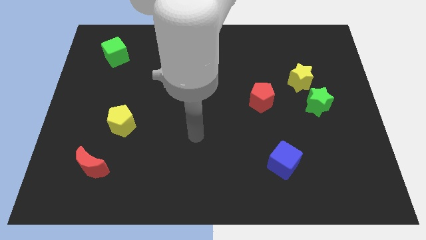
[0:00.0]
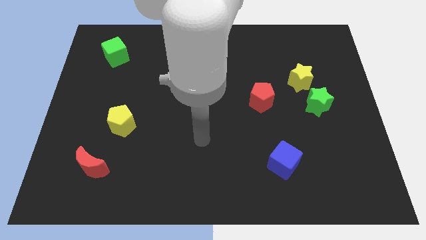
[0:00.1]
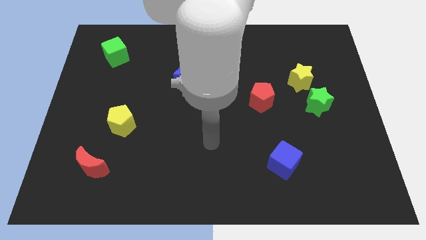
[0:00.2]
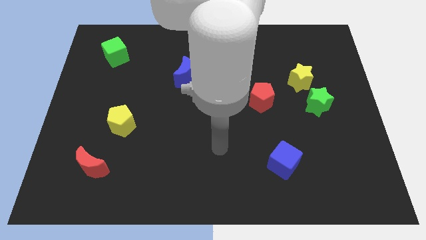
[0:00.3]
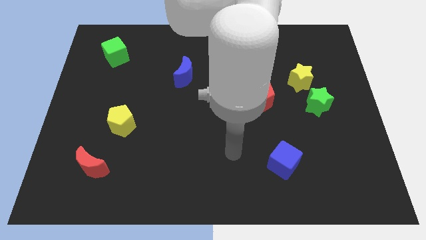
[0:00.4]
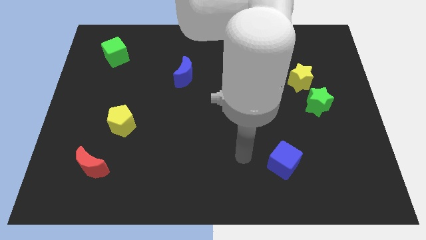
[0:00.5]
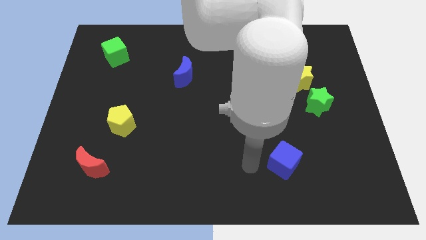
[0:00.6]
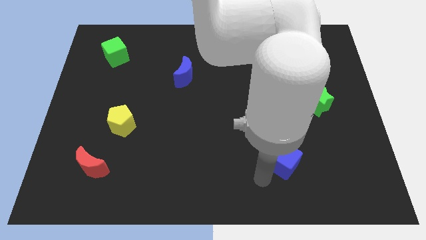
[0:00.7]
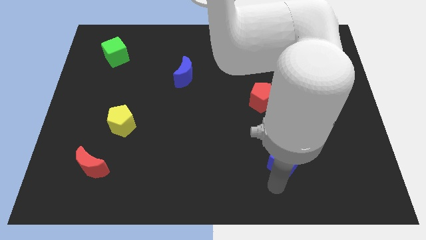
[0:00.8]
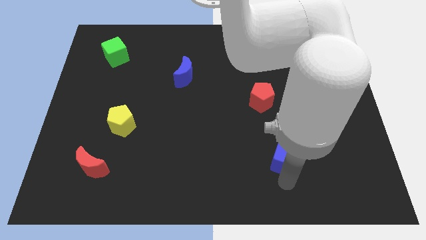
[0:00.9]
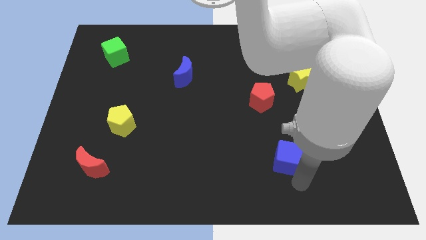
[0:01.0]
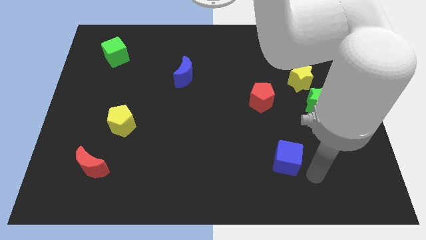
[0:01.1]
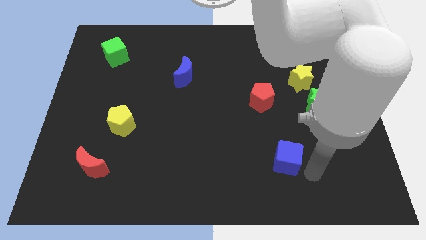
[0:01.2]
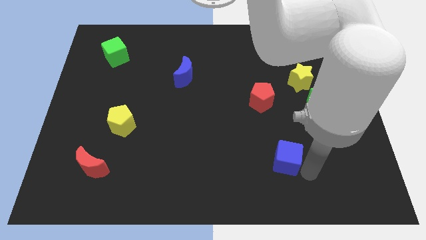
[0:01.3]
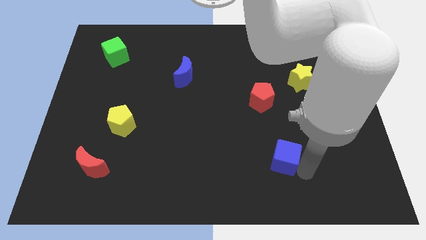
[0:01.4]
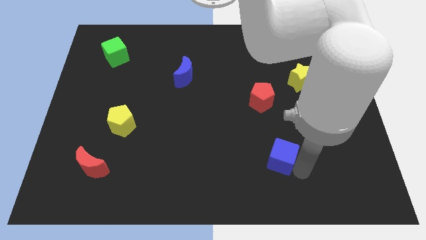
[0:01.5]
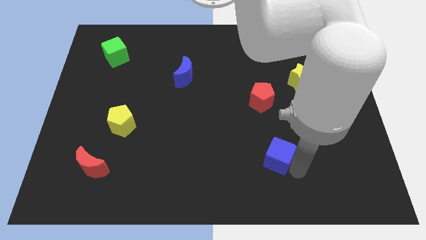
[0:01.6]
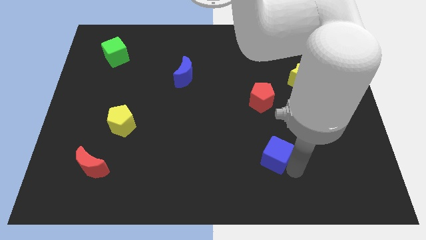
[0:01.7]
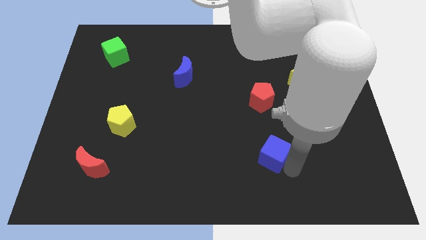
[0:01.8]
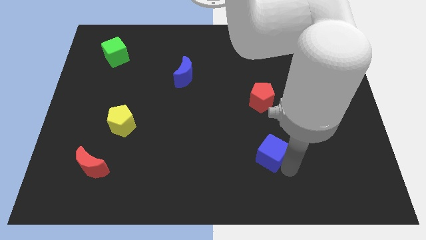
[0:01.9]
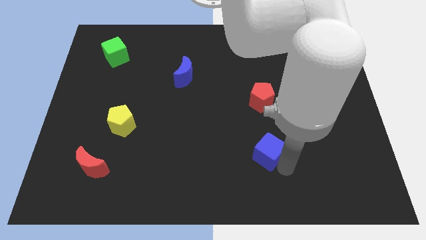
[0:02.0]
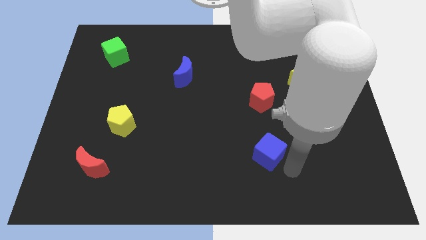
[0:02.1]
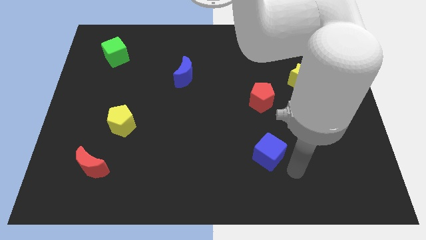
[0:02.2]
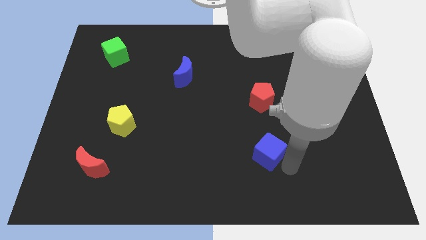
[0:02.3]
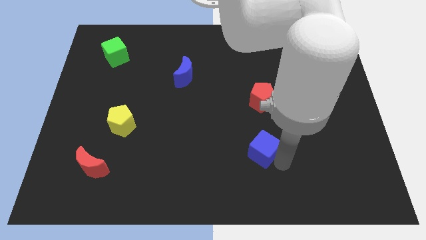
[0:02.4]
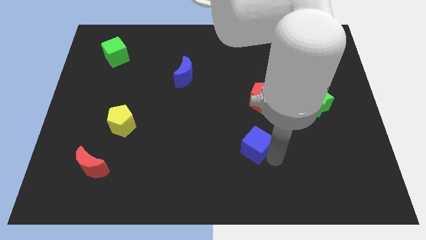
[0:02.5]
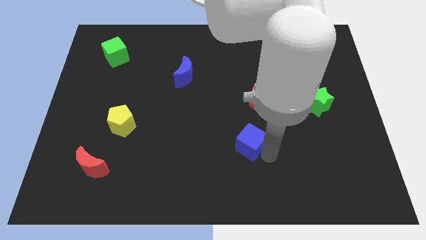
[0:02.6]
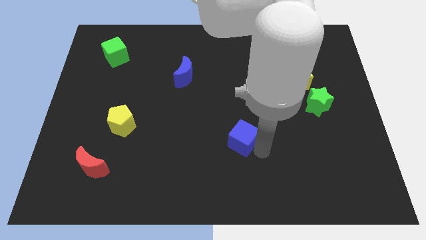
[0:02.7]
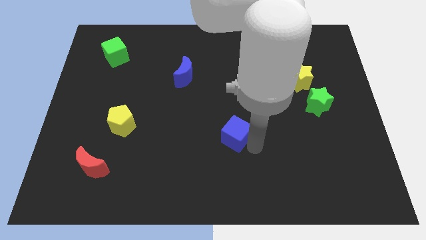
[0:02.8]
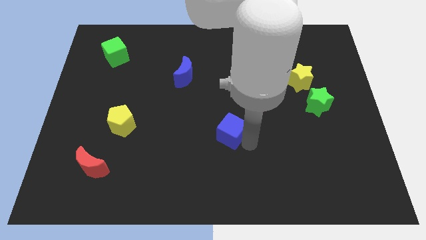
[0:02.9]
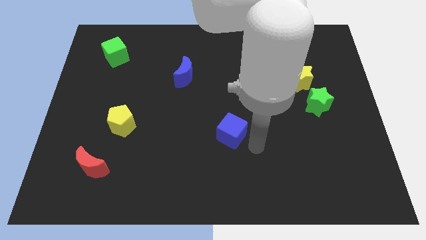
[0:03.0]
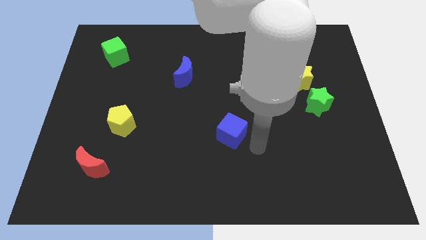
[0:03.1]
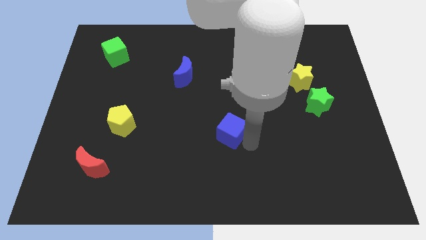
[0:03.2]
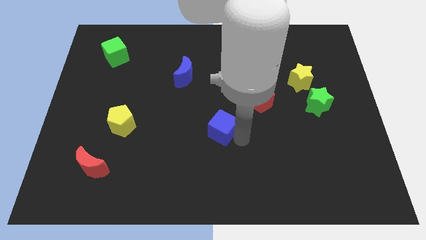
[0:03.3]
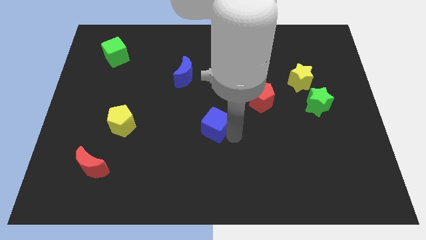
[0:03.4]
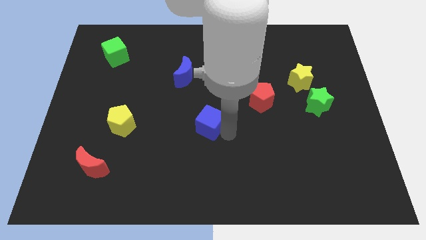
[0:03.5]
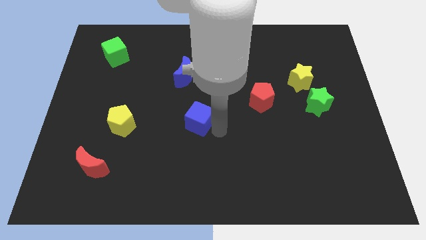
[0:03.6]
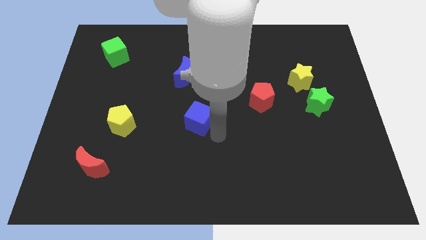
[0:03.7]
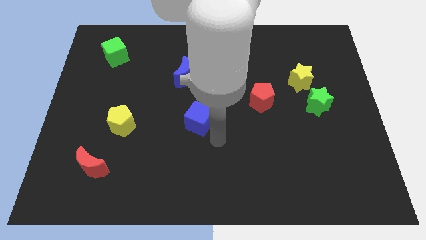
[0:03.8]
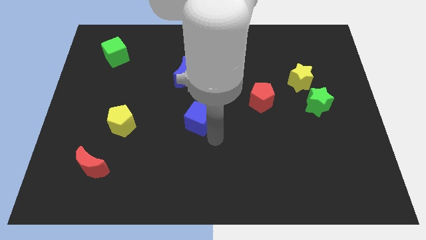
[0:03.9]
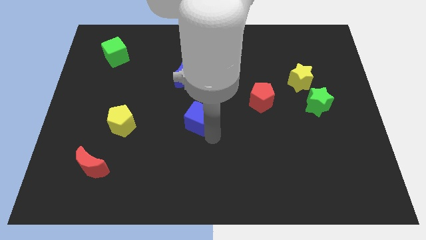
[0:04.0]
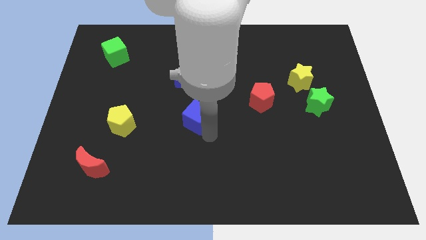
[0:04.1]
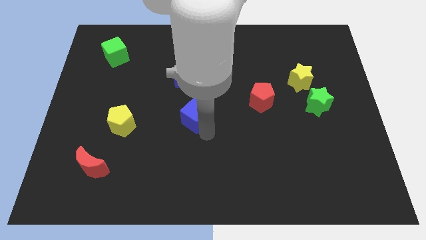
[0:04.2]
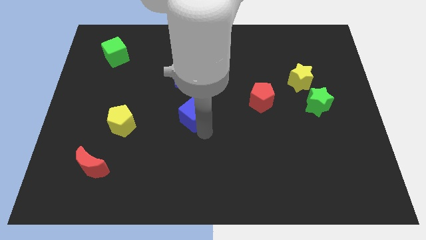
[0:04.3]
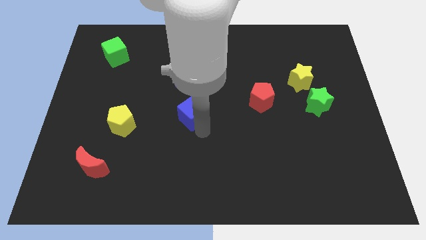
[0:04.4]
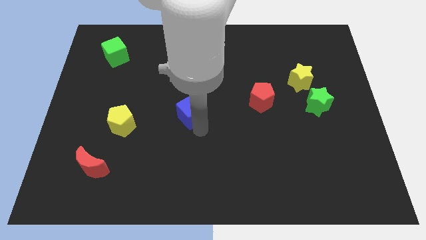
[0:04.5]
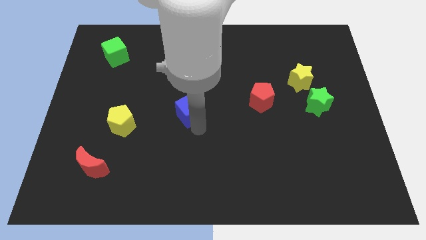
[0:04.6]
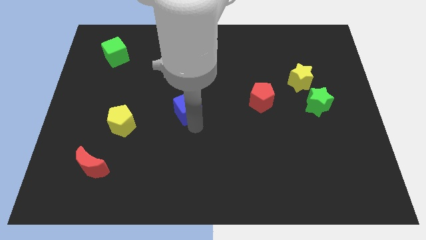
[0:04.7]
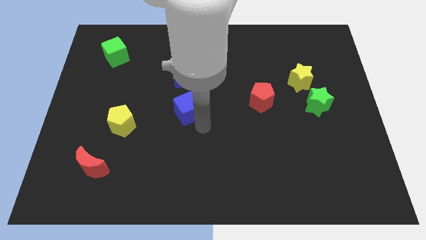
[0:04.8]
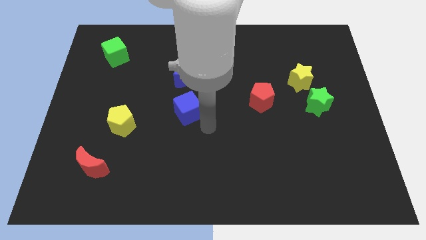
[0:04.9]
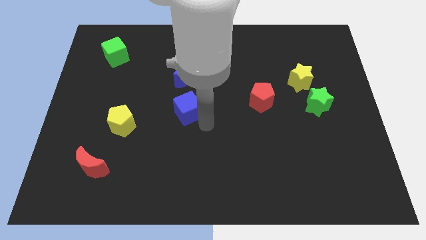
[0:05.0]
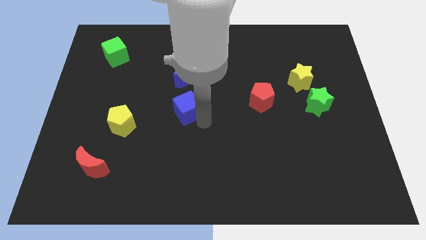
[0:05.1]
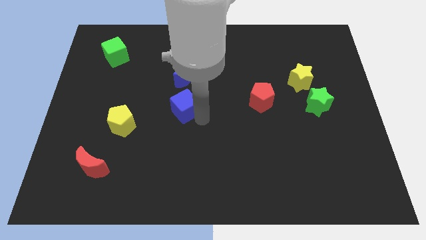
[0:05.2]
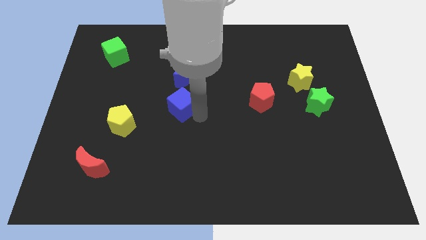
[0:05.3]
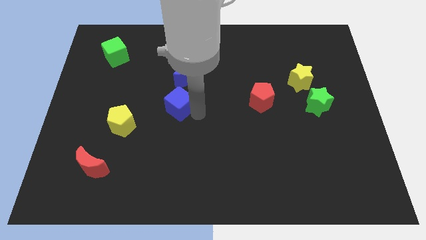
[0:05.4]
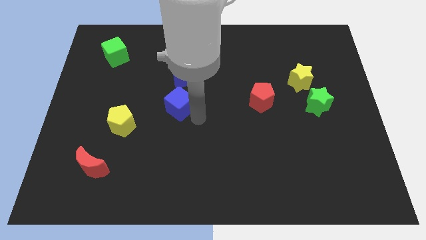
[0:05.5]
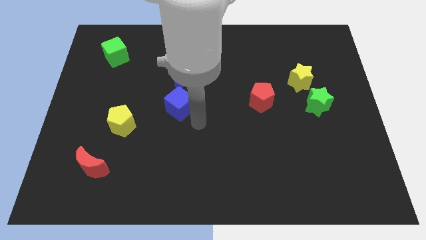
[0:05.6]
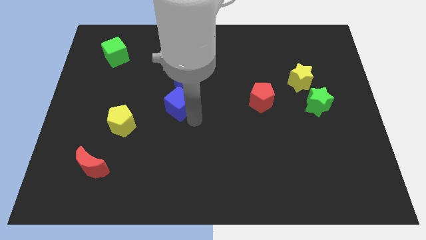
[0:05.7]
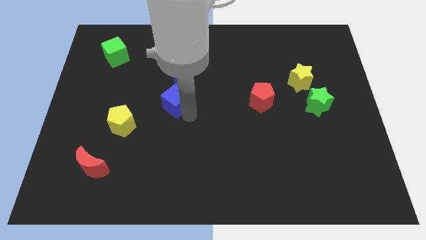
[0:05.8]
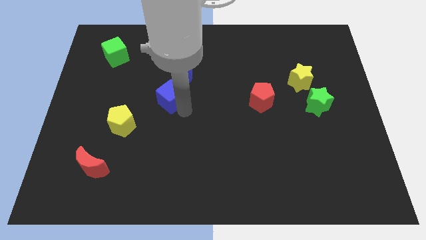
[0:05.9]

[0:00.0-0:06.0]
slide the blue cube to the bottom left side of the blue moon

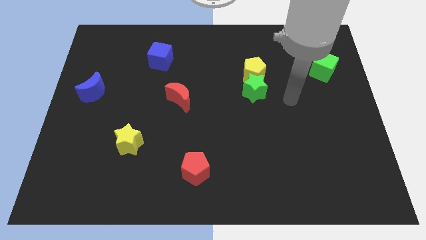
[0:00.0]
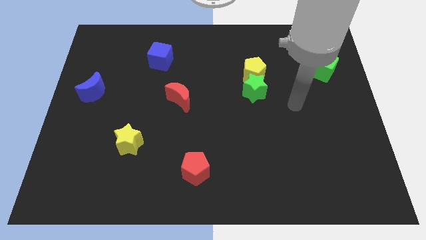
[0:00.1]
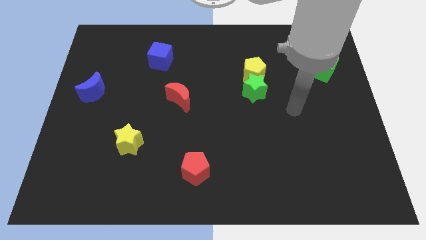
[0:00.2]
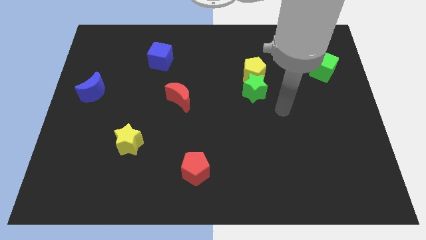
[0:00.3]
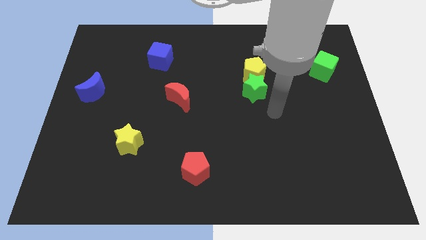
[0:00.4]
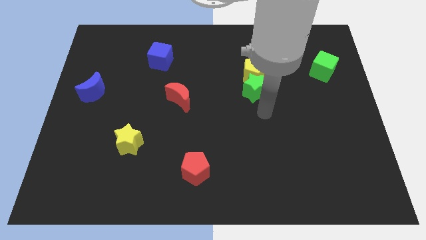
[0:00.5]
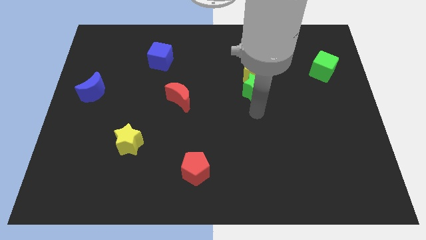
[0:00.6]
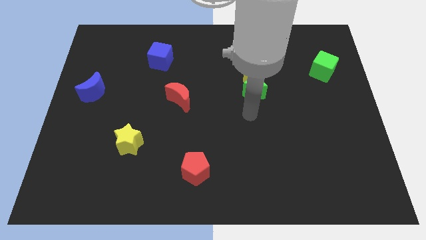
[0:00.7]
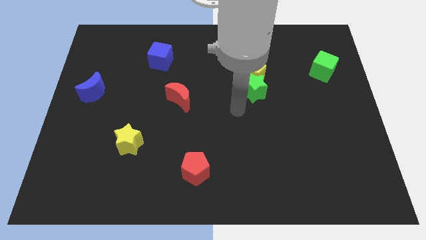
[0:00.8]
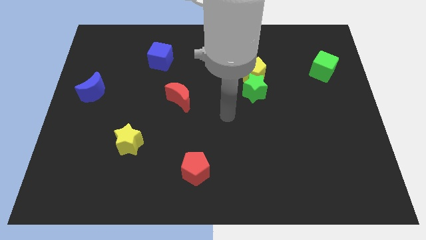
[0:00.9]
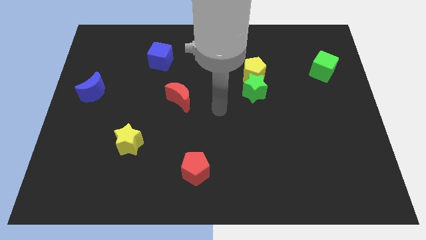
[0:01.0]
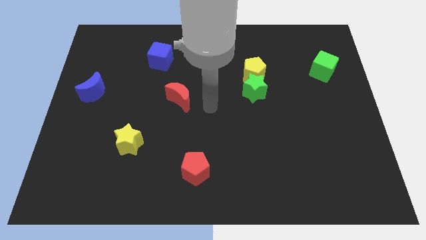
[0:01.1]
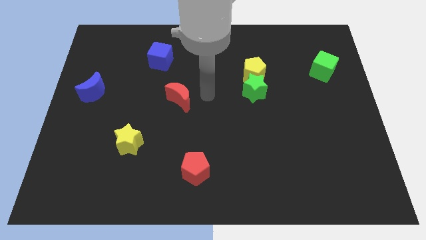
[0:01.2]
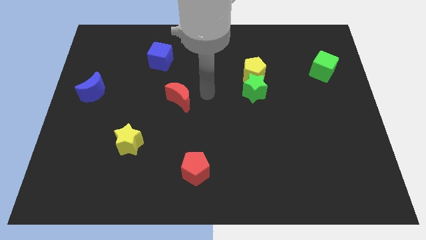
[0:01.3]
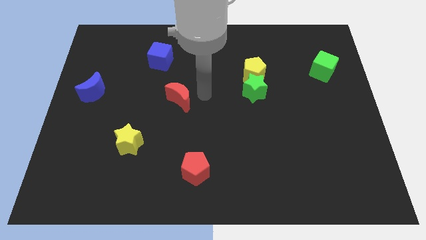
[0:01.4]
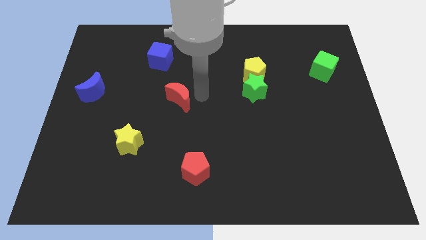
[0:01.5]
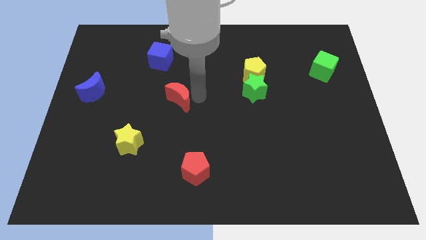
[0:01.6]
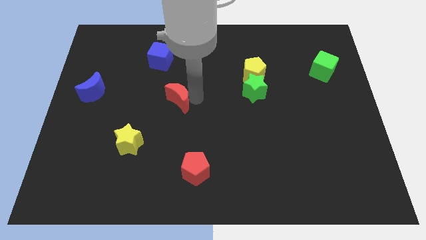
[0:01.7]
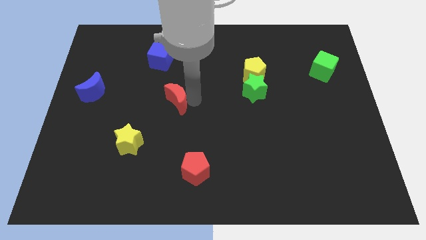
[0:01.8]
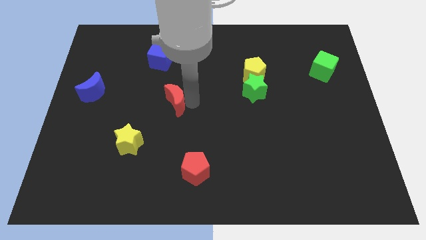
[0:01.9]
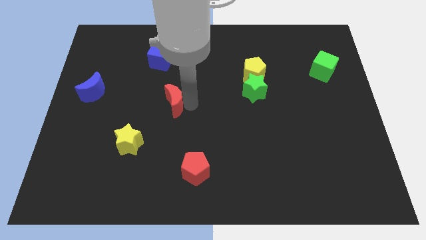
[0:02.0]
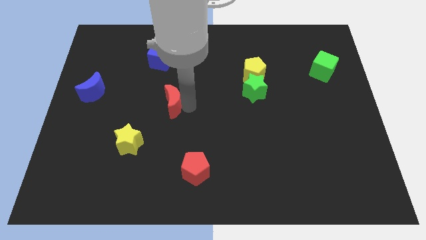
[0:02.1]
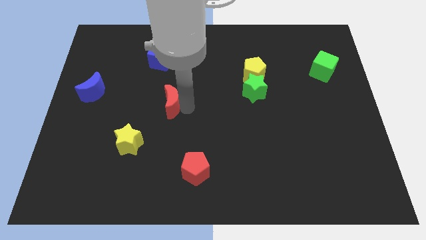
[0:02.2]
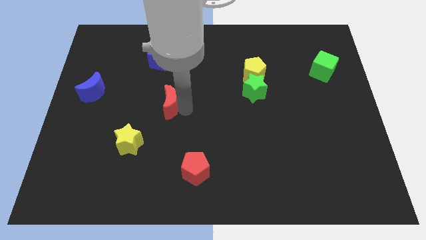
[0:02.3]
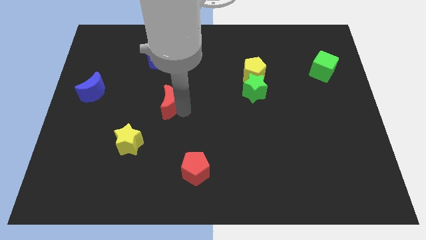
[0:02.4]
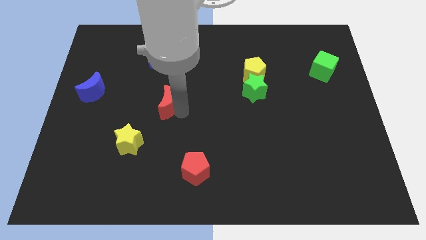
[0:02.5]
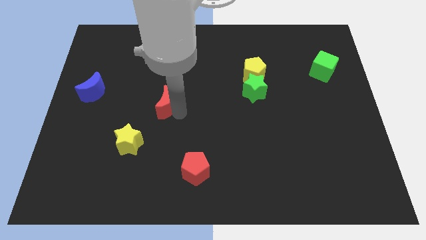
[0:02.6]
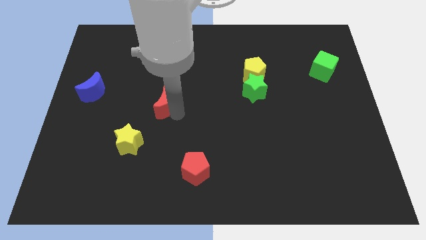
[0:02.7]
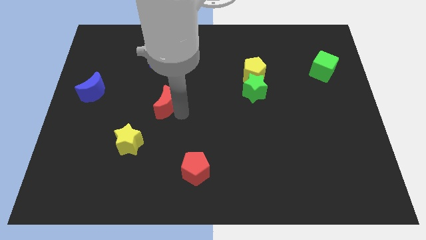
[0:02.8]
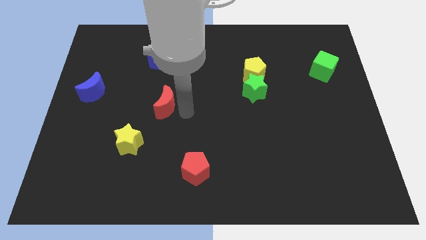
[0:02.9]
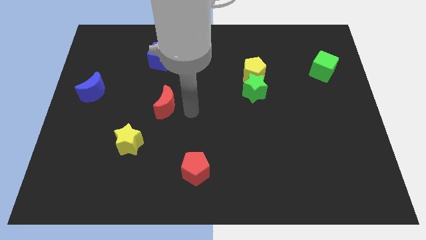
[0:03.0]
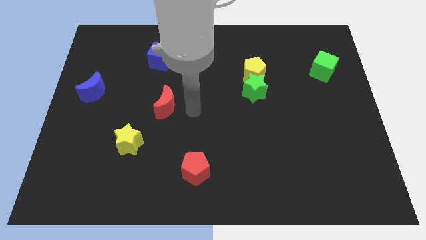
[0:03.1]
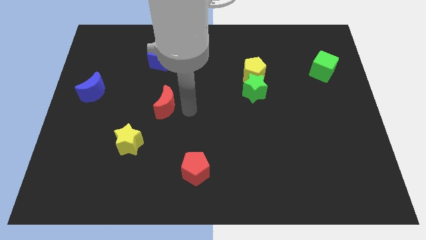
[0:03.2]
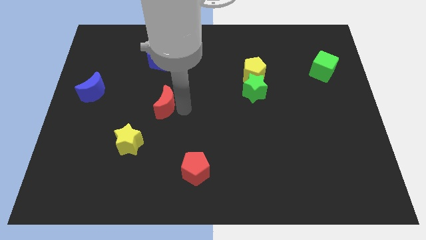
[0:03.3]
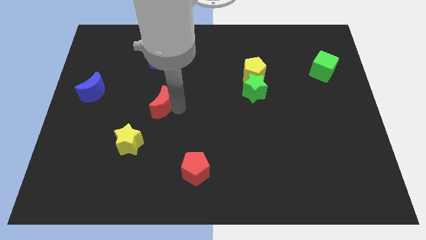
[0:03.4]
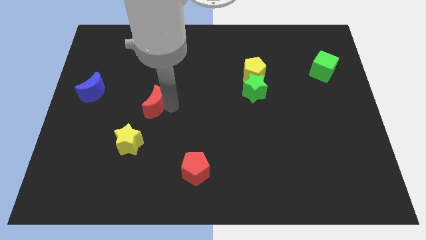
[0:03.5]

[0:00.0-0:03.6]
slide the red moon to the top of the yellow star
